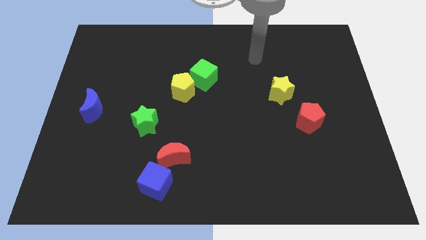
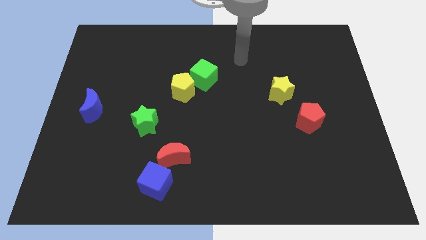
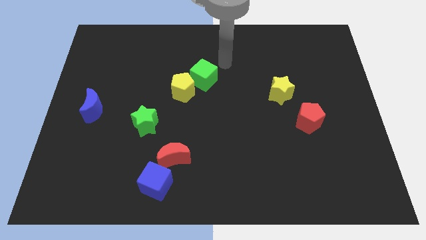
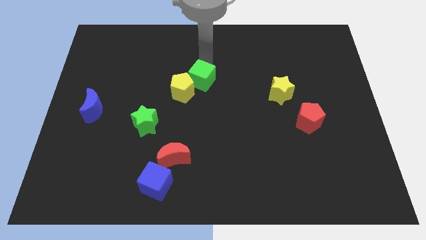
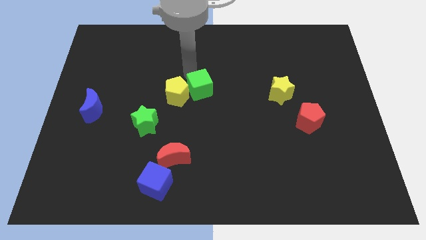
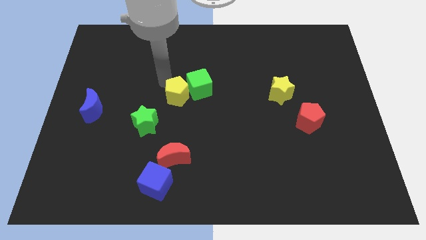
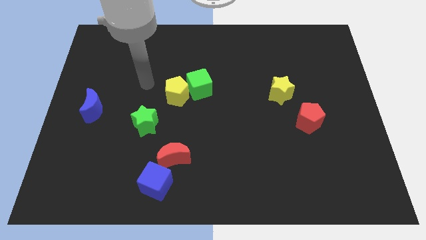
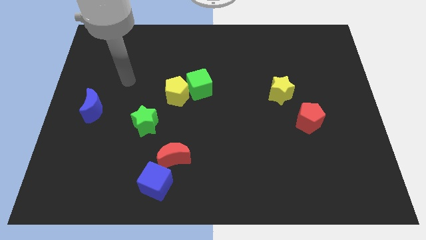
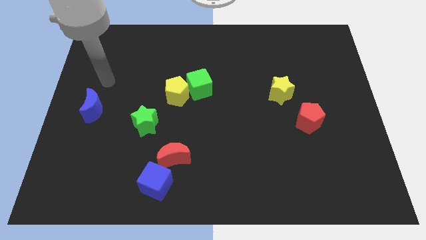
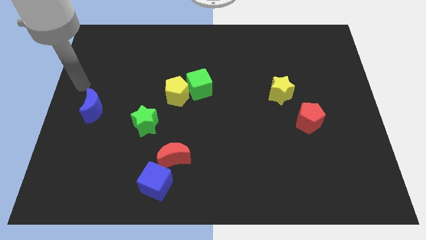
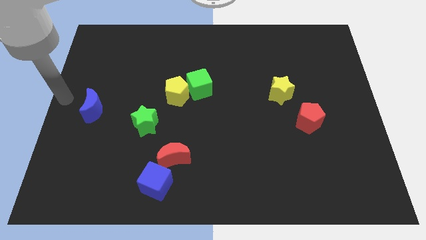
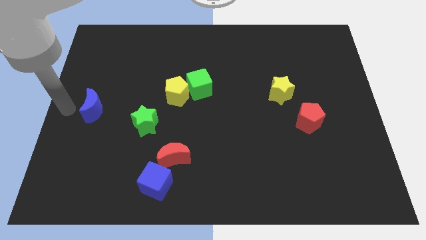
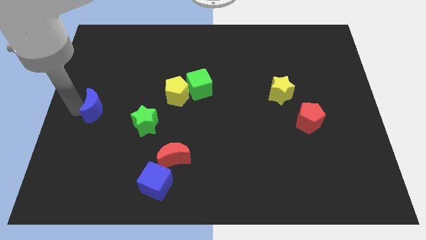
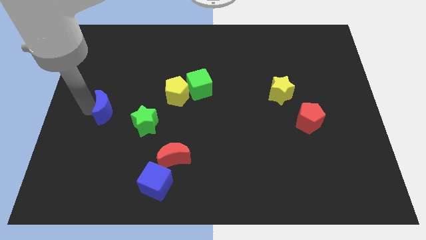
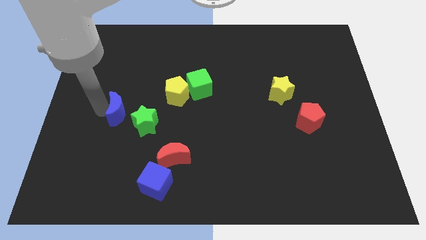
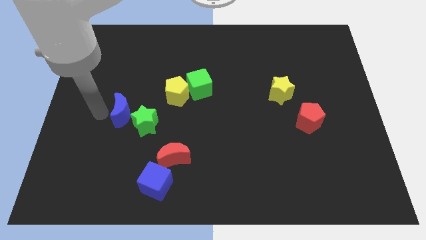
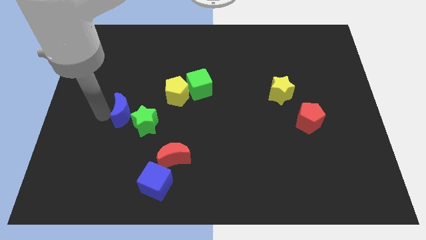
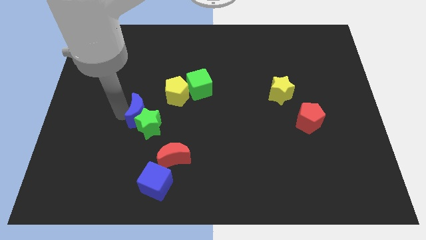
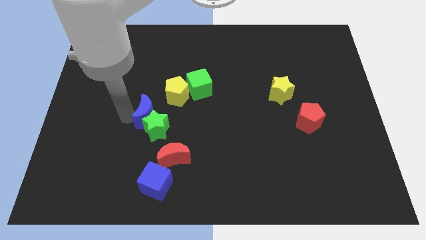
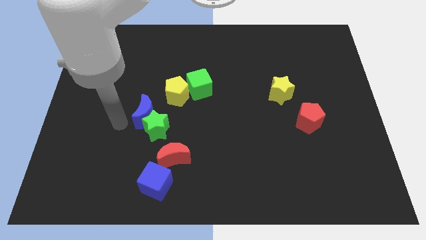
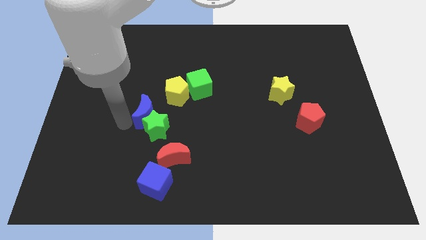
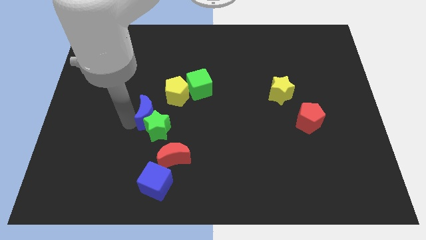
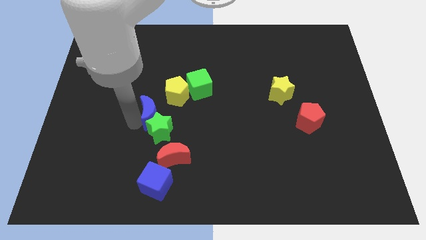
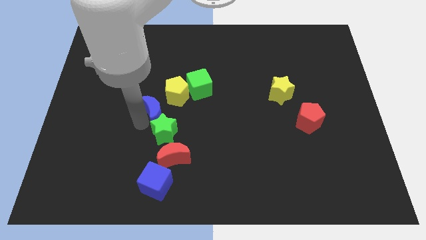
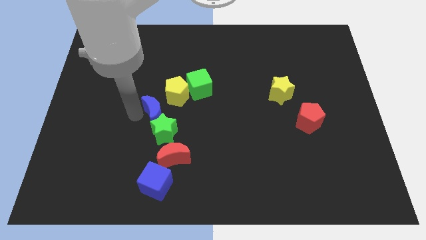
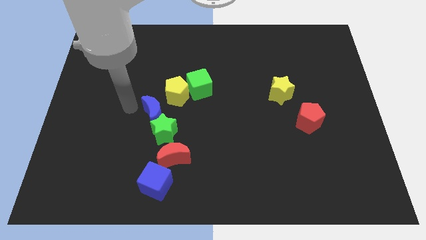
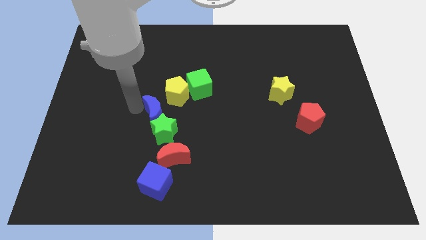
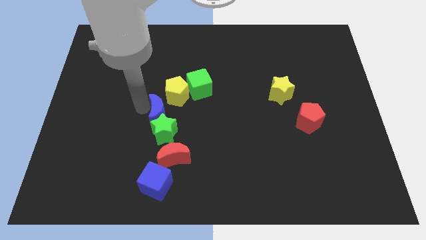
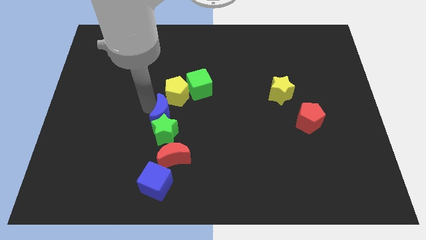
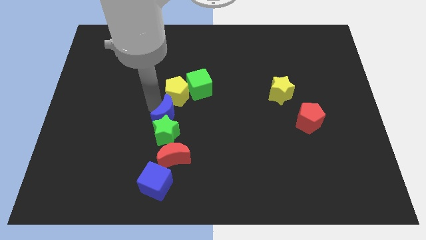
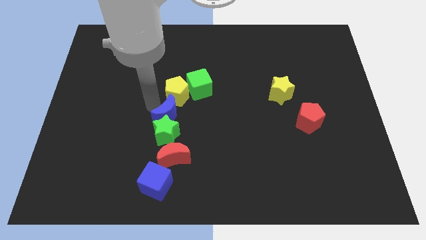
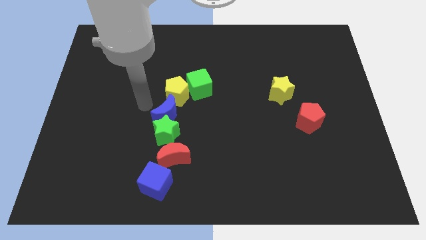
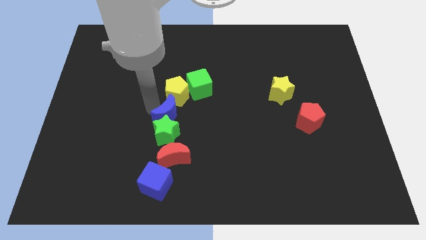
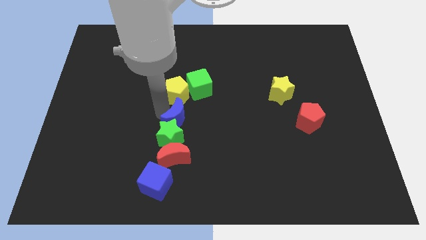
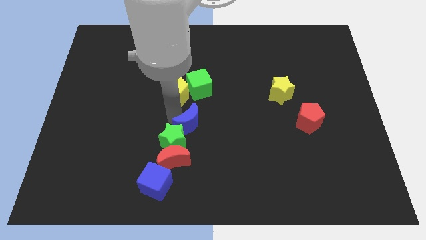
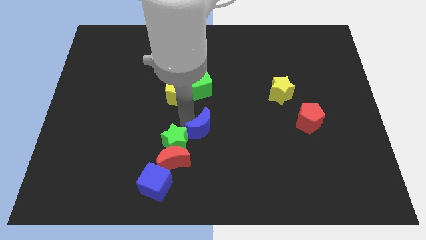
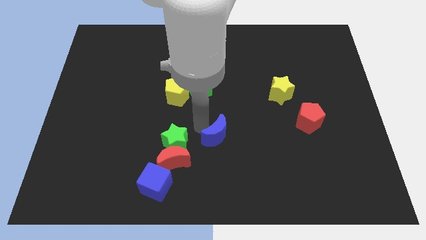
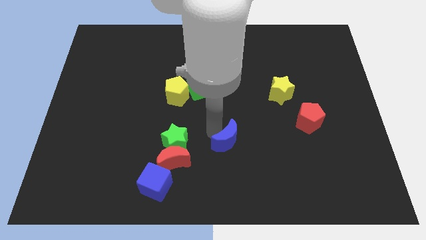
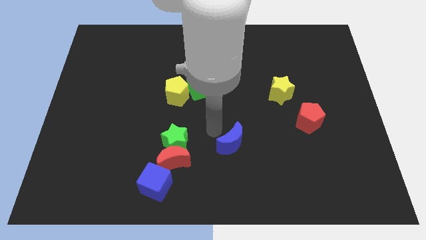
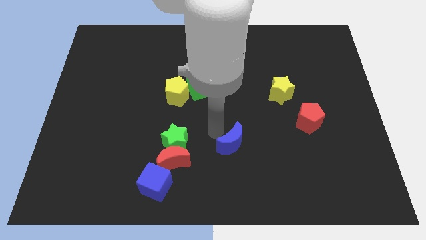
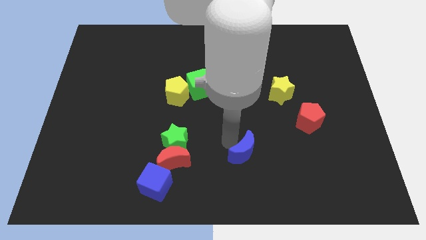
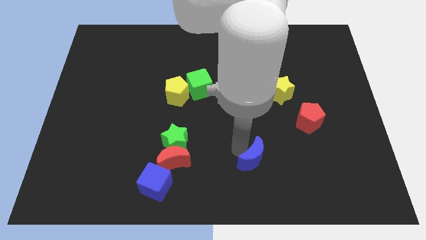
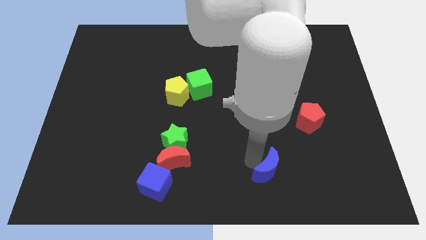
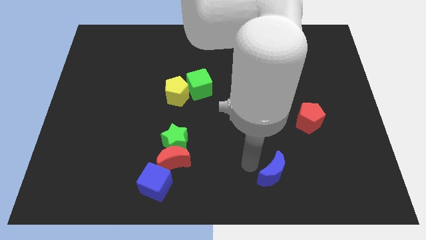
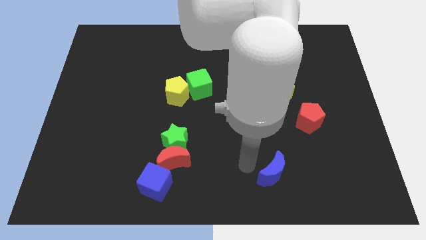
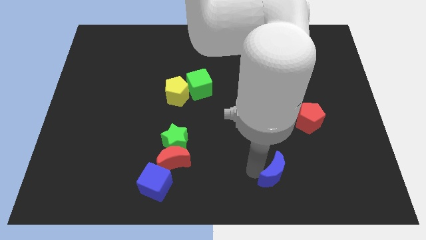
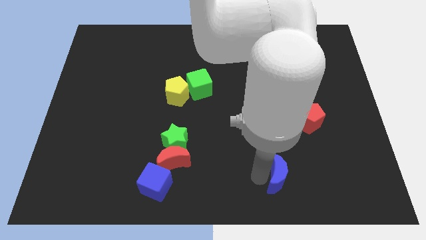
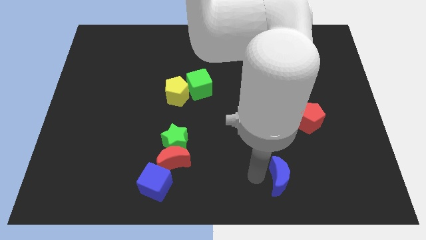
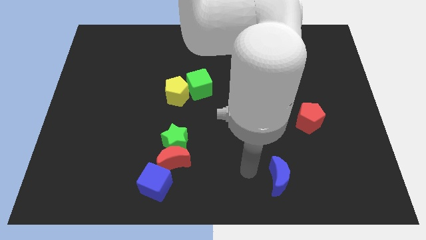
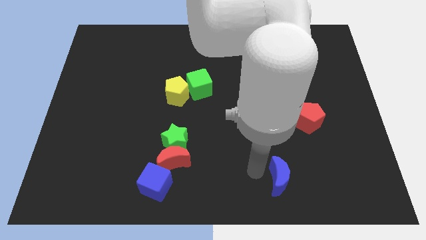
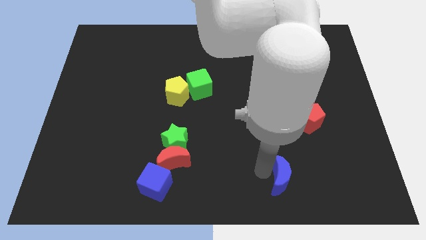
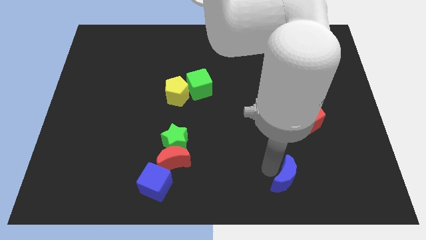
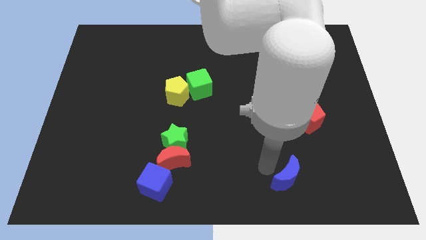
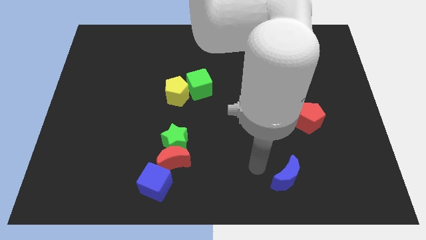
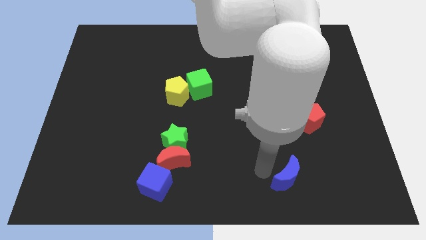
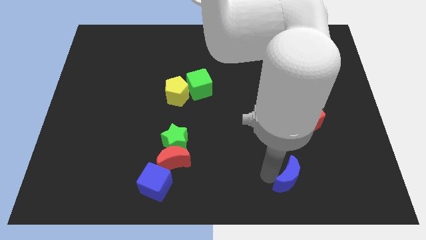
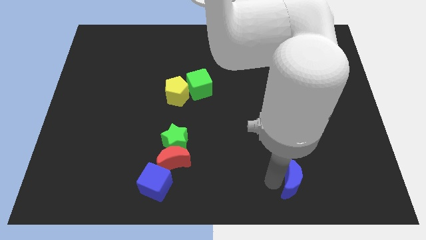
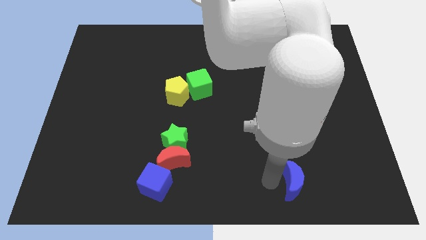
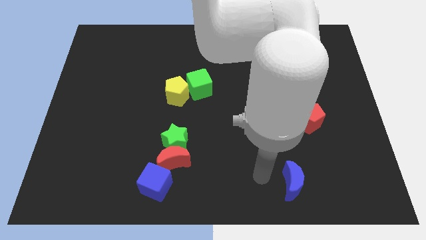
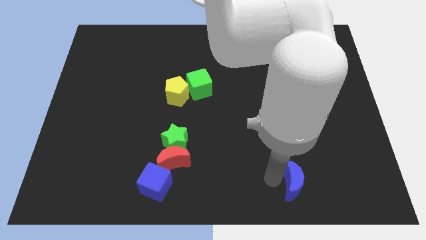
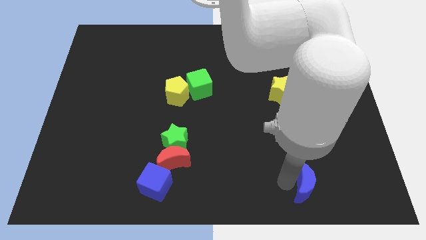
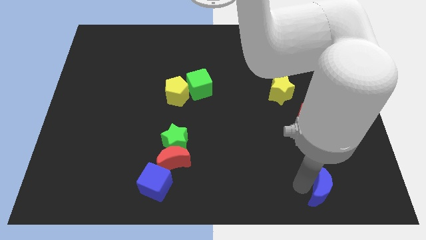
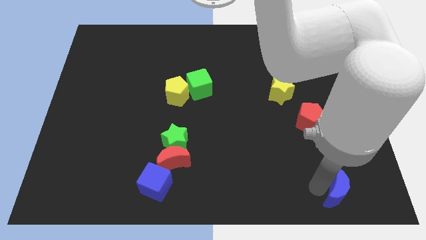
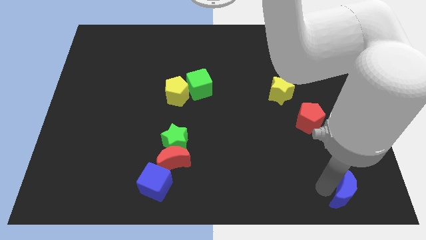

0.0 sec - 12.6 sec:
move the blue moon to the lower right corner
